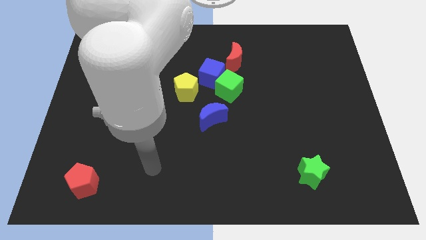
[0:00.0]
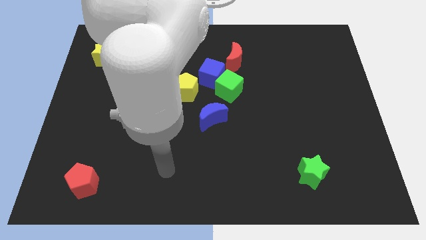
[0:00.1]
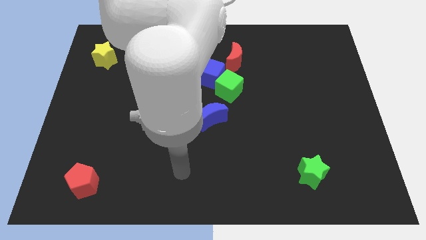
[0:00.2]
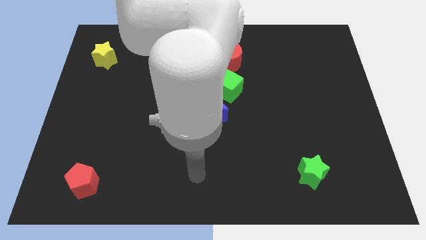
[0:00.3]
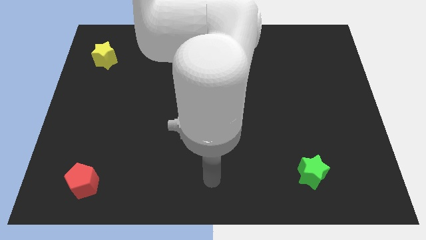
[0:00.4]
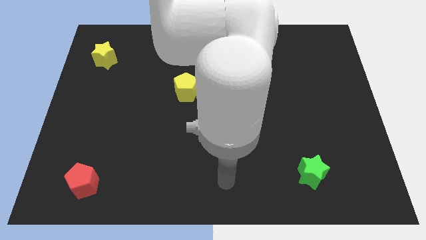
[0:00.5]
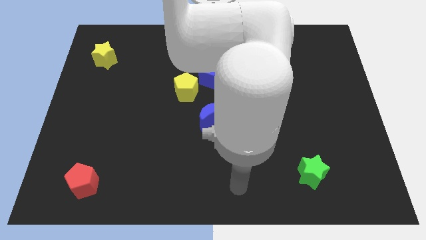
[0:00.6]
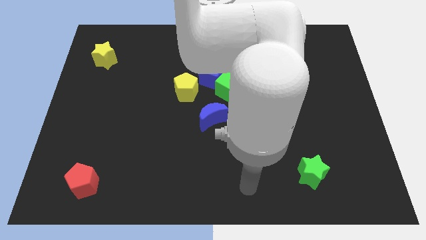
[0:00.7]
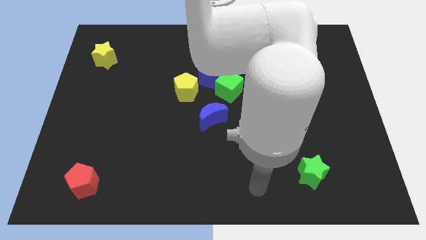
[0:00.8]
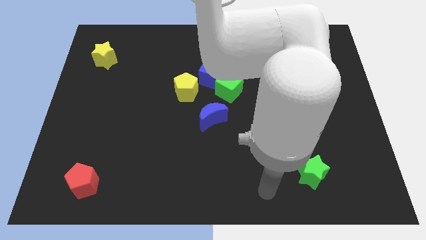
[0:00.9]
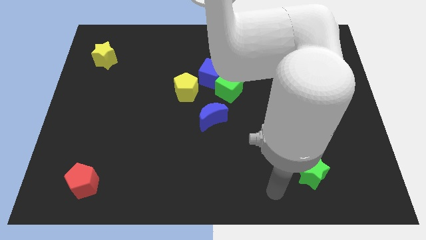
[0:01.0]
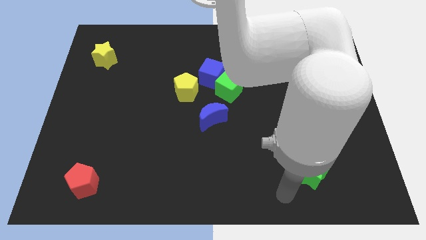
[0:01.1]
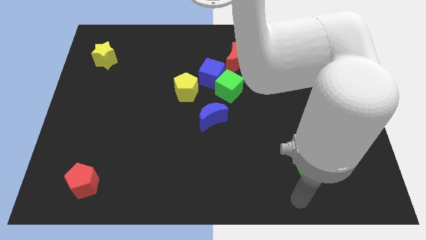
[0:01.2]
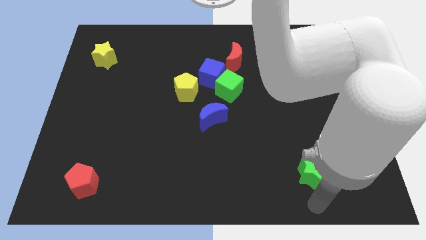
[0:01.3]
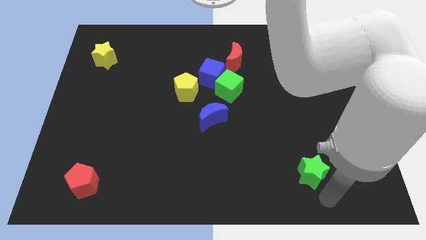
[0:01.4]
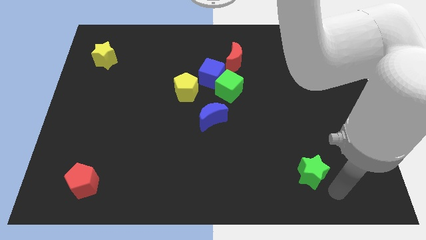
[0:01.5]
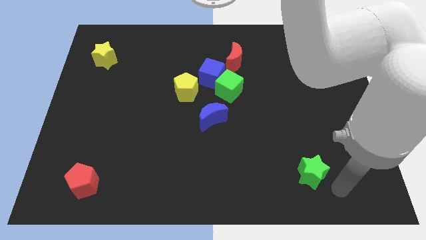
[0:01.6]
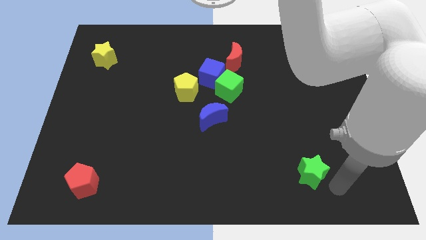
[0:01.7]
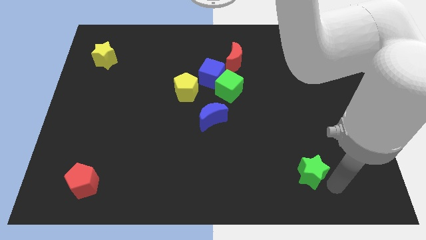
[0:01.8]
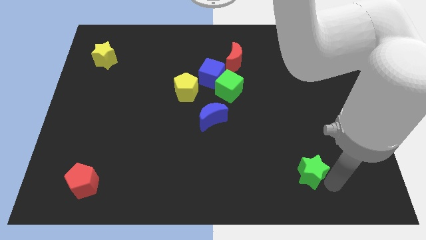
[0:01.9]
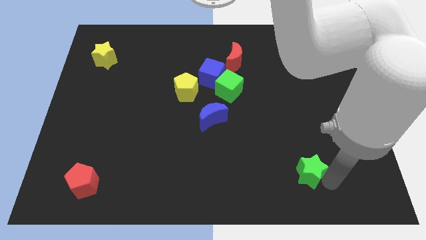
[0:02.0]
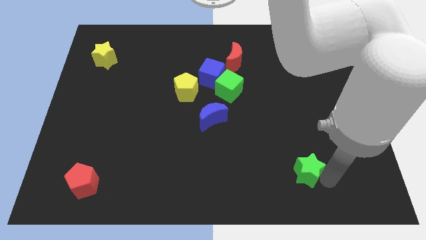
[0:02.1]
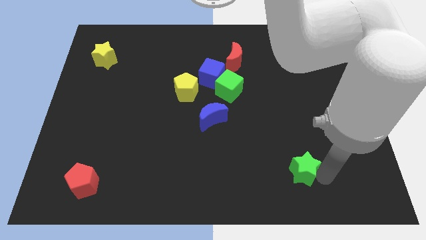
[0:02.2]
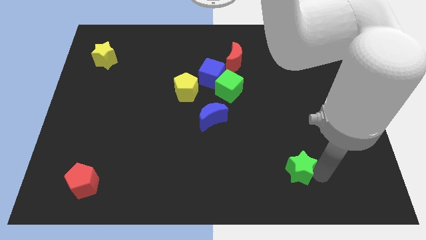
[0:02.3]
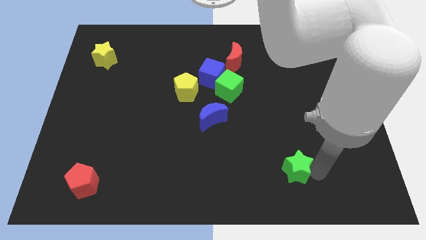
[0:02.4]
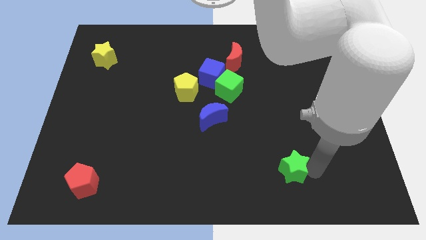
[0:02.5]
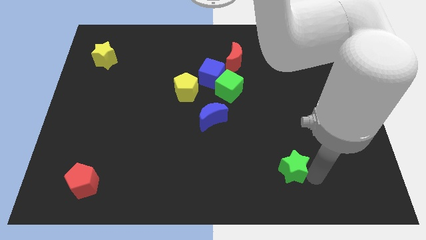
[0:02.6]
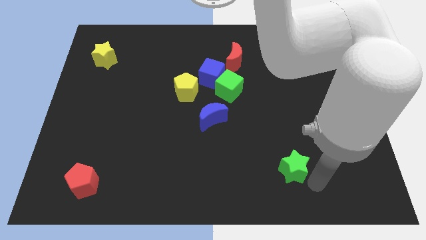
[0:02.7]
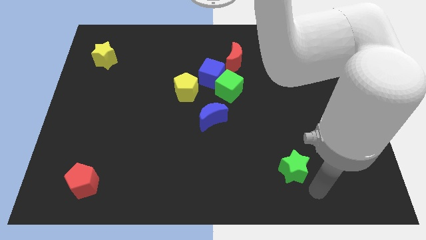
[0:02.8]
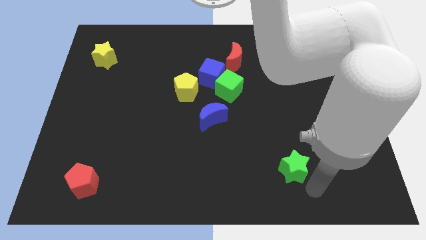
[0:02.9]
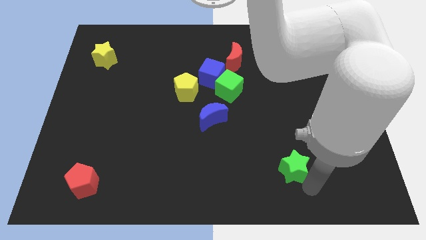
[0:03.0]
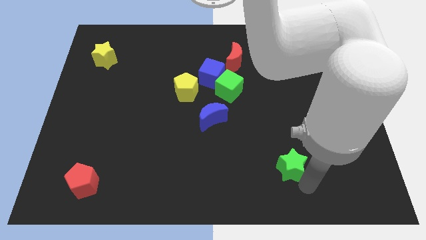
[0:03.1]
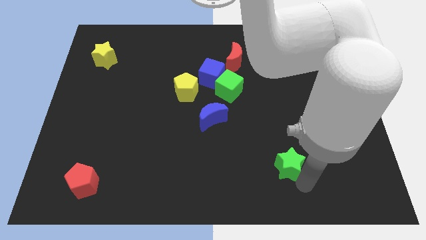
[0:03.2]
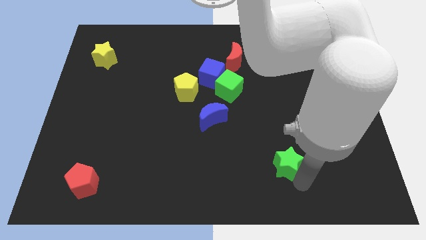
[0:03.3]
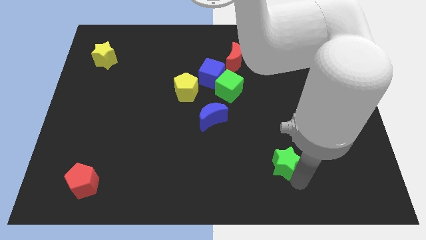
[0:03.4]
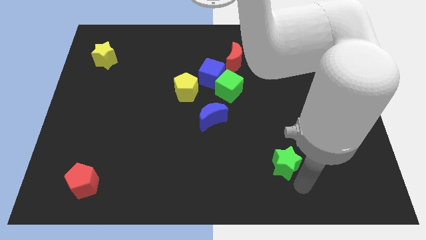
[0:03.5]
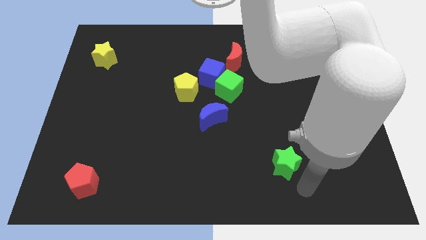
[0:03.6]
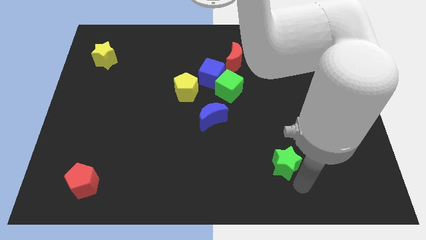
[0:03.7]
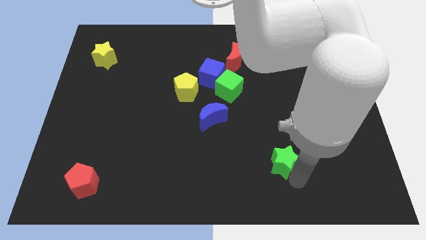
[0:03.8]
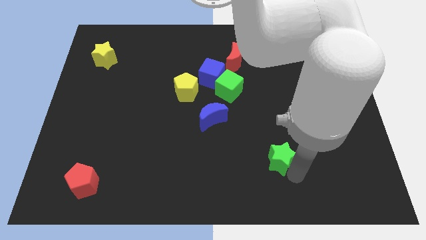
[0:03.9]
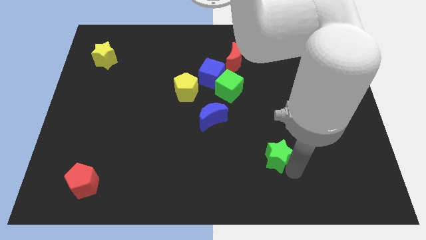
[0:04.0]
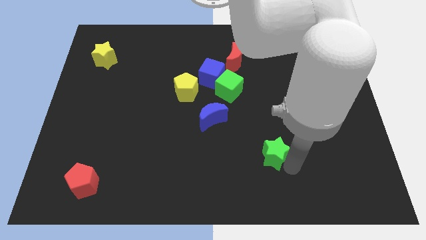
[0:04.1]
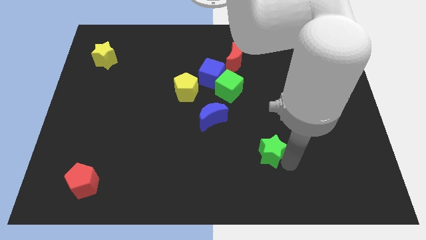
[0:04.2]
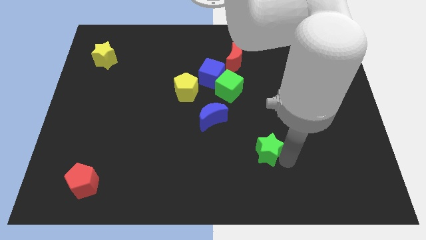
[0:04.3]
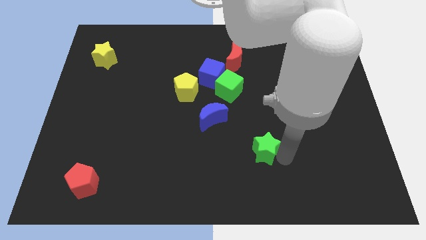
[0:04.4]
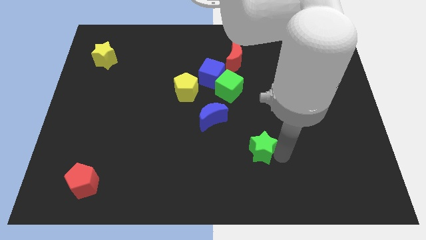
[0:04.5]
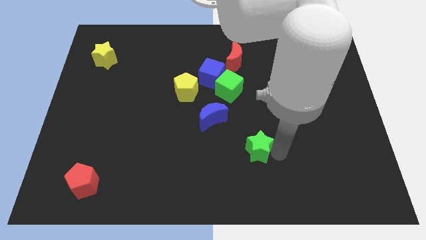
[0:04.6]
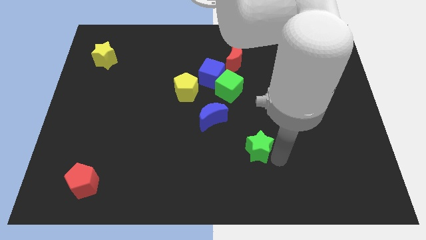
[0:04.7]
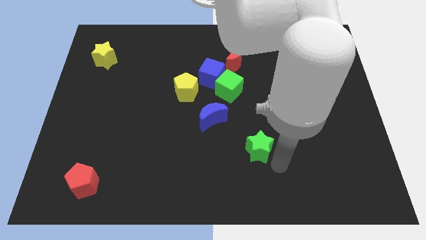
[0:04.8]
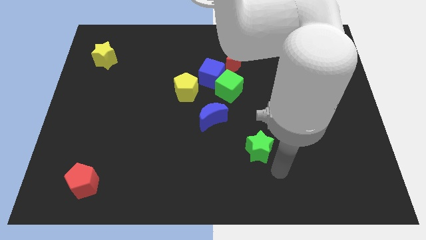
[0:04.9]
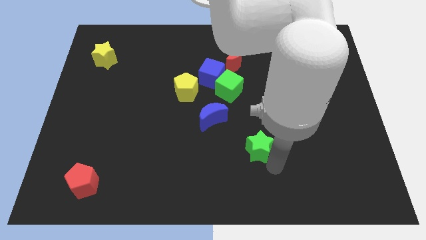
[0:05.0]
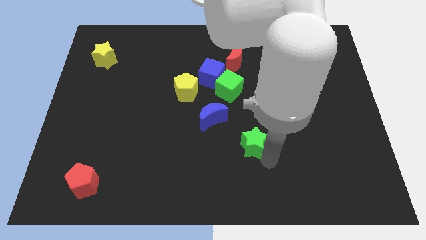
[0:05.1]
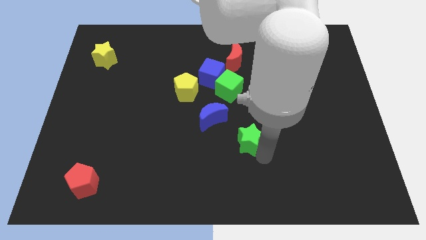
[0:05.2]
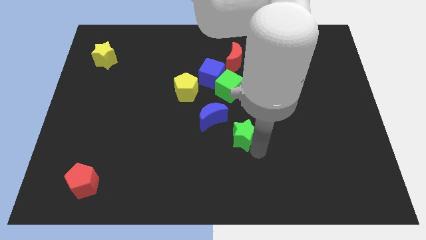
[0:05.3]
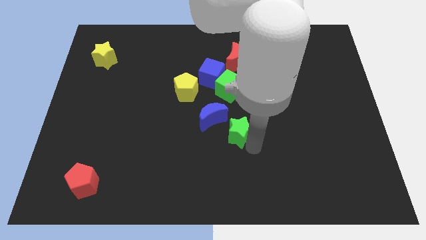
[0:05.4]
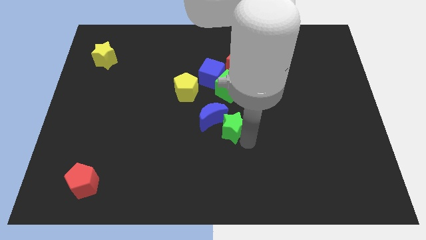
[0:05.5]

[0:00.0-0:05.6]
move the green star towards the blue moon

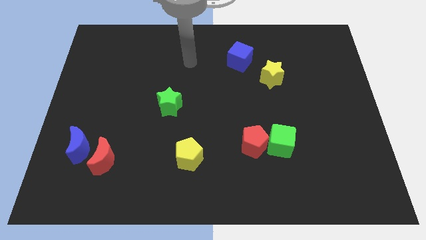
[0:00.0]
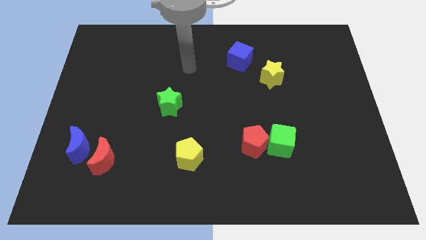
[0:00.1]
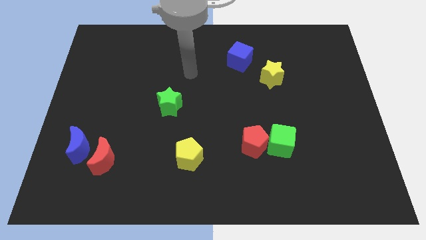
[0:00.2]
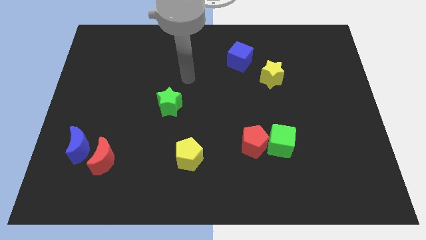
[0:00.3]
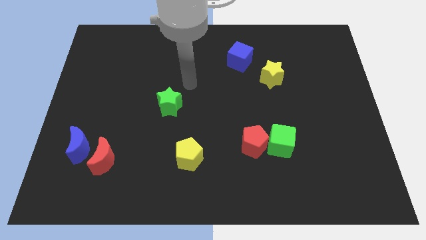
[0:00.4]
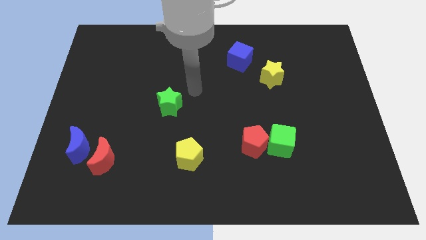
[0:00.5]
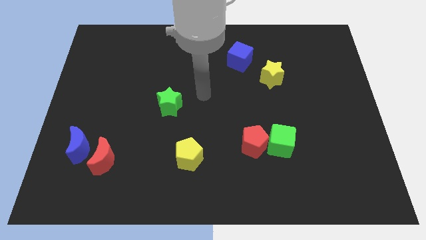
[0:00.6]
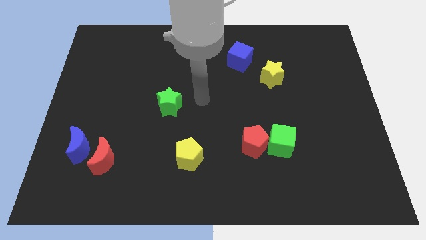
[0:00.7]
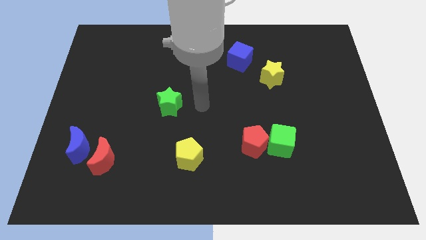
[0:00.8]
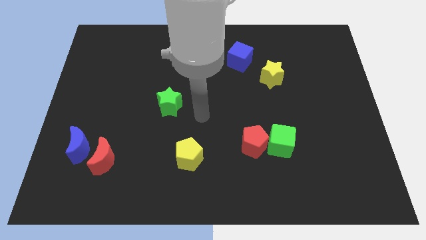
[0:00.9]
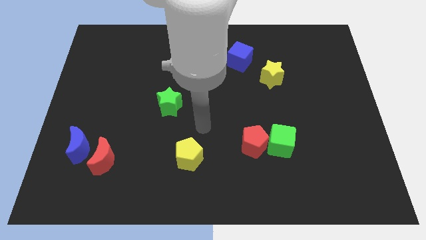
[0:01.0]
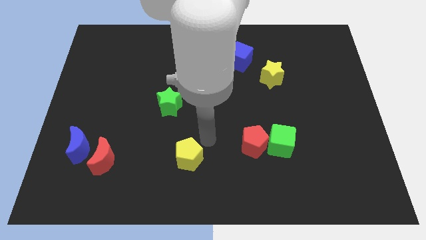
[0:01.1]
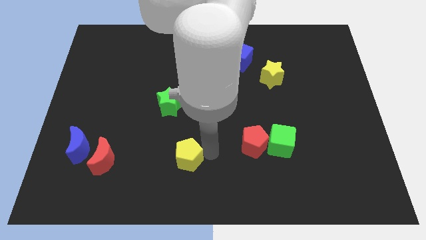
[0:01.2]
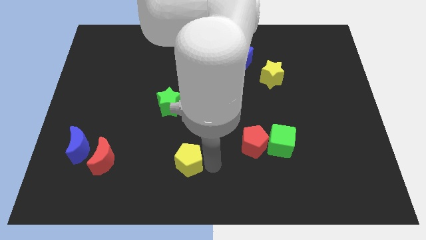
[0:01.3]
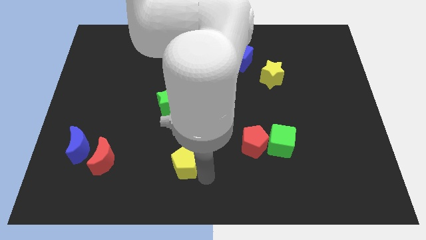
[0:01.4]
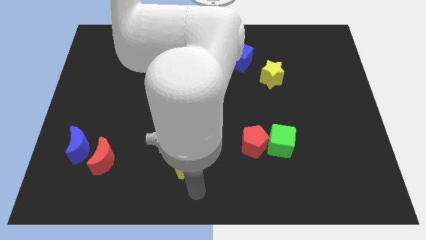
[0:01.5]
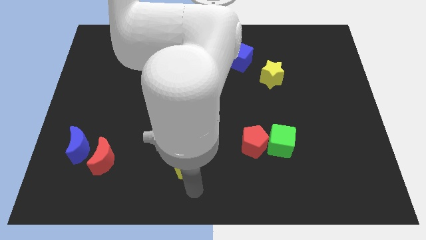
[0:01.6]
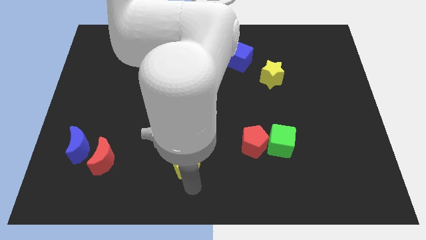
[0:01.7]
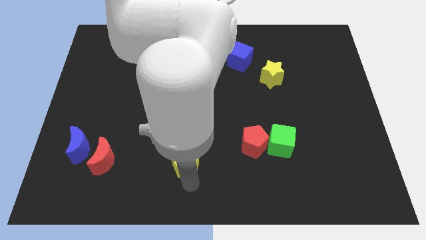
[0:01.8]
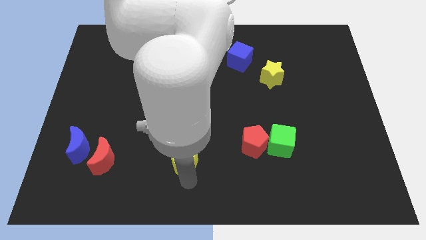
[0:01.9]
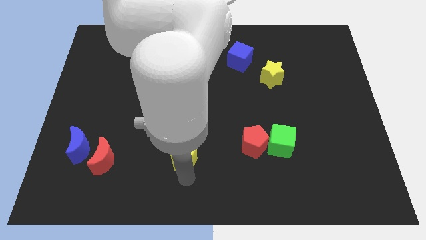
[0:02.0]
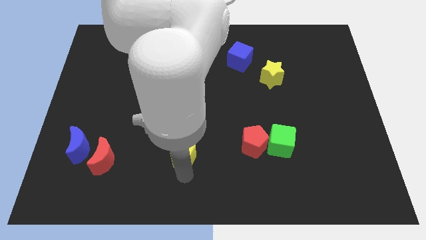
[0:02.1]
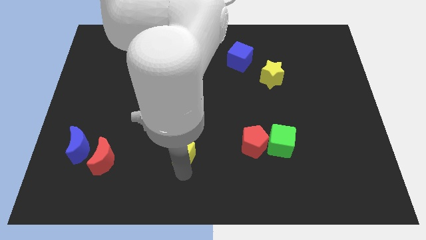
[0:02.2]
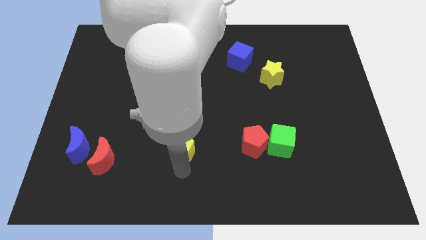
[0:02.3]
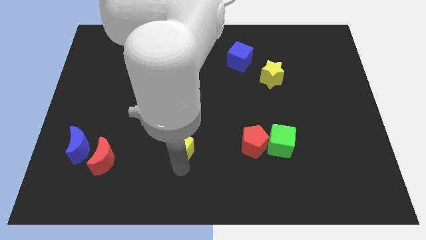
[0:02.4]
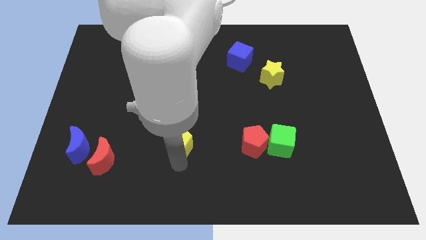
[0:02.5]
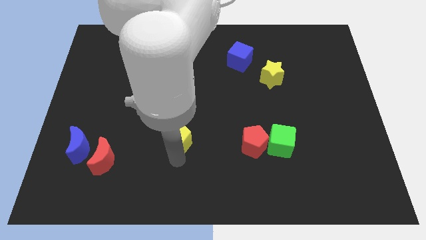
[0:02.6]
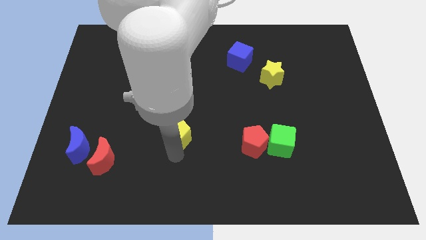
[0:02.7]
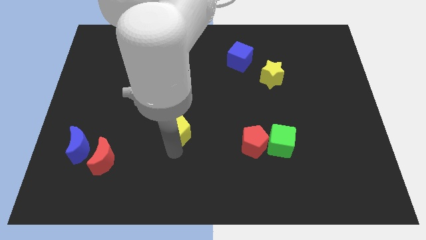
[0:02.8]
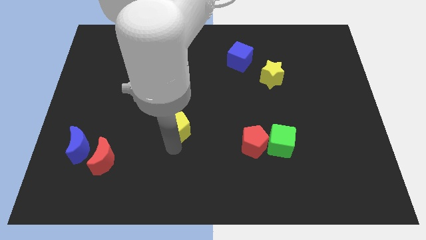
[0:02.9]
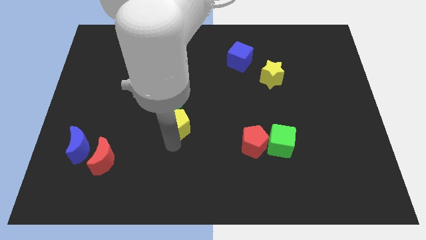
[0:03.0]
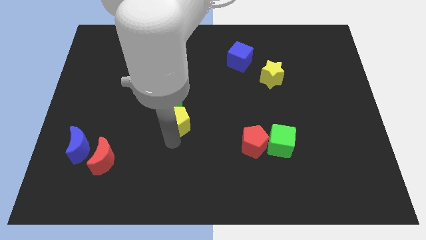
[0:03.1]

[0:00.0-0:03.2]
slide the yellow pentagon close to the green star
